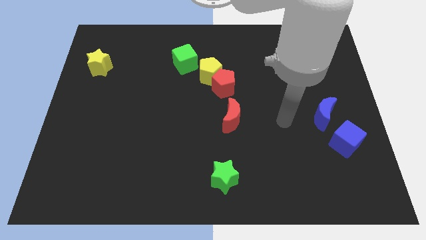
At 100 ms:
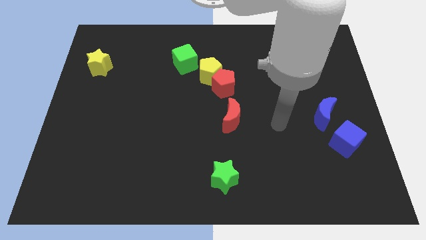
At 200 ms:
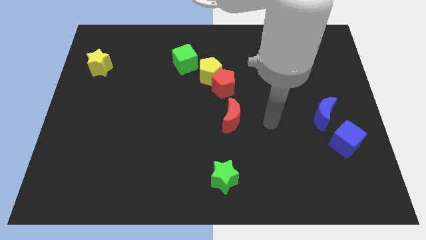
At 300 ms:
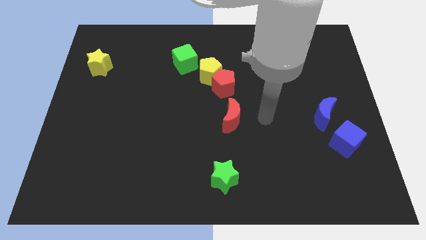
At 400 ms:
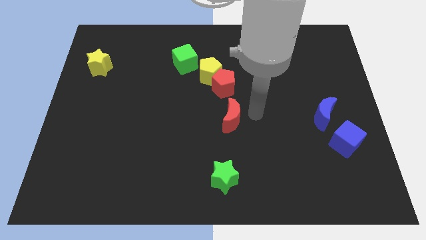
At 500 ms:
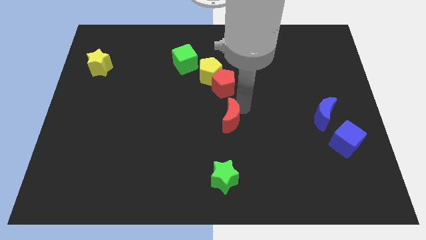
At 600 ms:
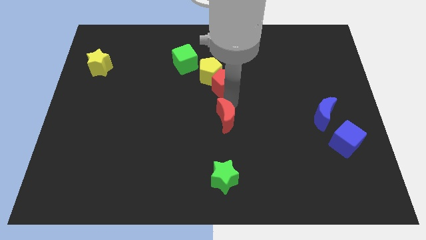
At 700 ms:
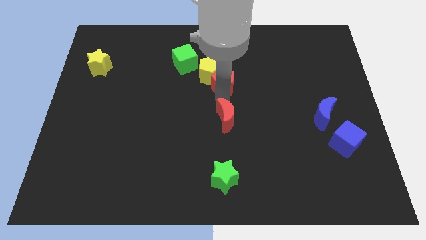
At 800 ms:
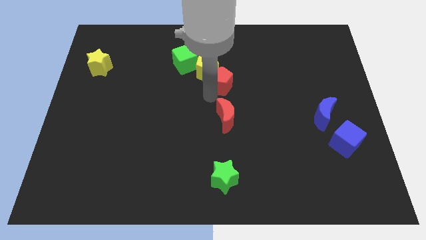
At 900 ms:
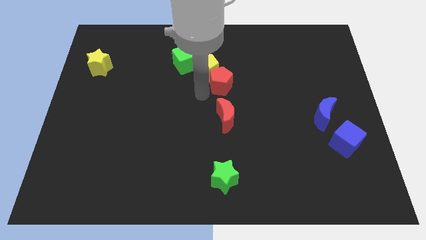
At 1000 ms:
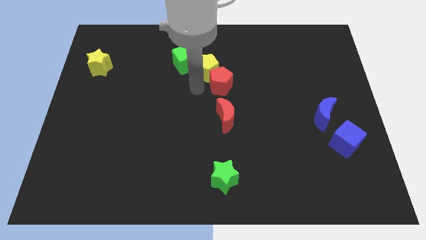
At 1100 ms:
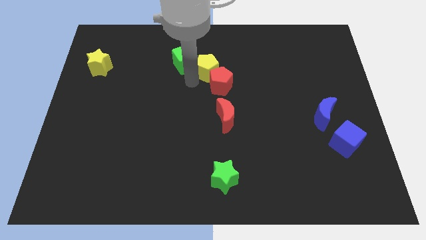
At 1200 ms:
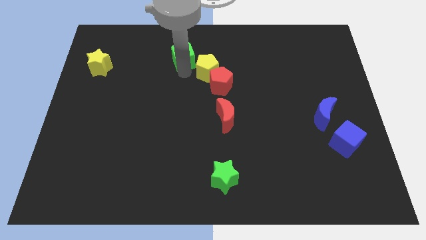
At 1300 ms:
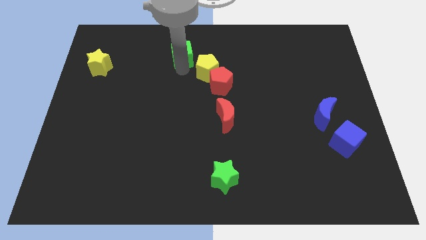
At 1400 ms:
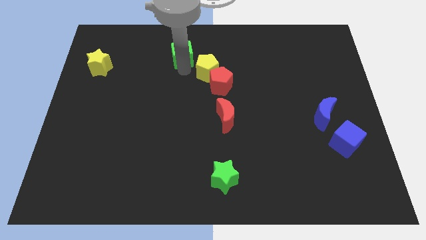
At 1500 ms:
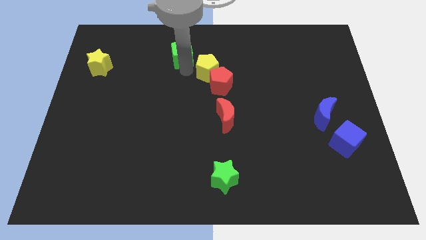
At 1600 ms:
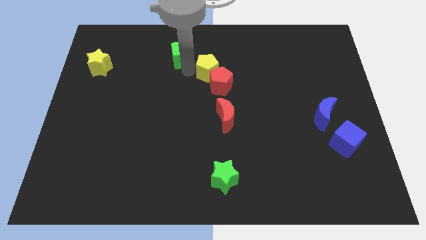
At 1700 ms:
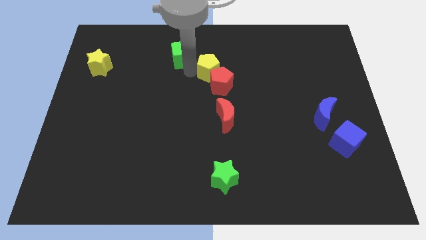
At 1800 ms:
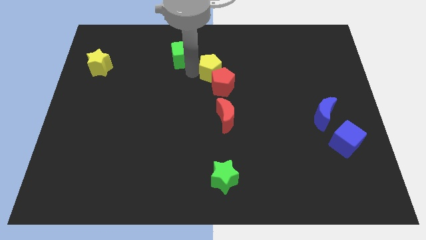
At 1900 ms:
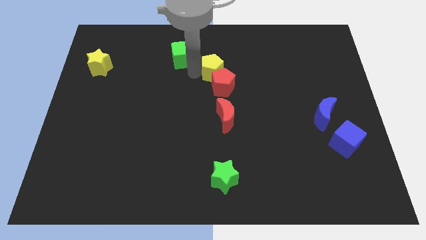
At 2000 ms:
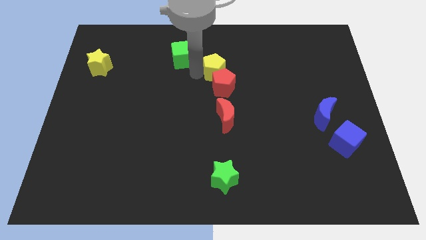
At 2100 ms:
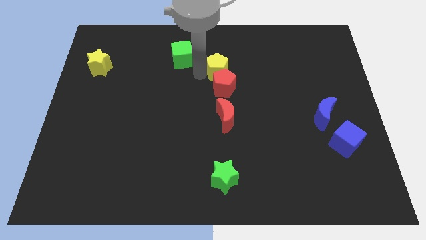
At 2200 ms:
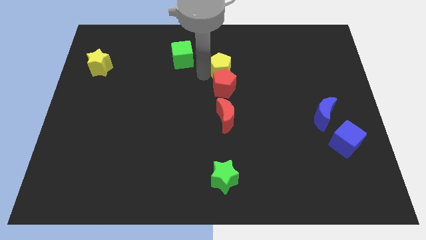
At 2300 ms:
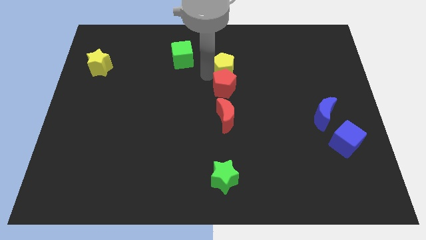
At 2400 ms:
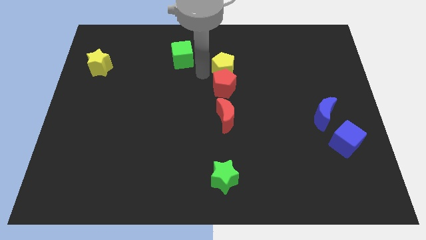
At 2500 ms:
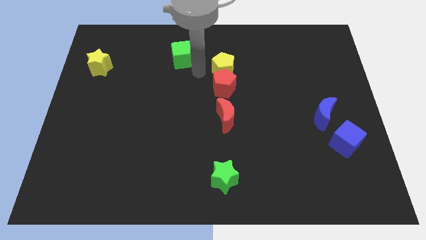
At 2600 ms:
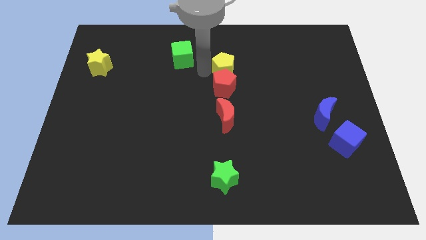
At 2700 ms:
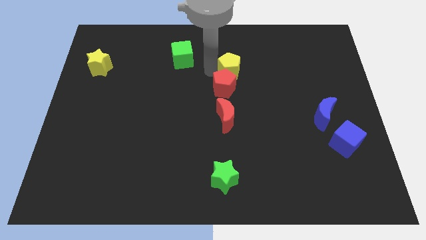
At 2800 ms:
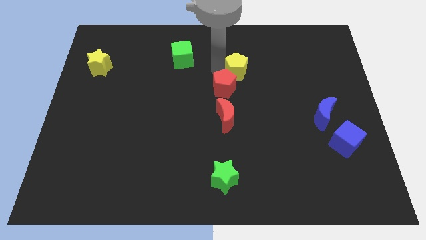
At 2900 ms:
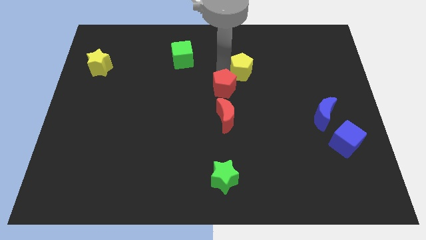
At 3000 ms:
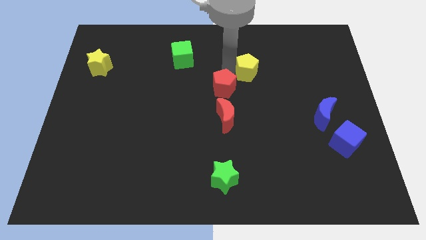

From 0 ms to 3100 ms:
pull the yellow pentagon apart from the red pentagon and green cube

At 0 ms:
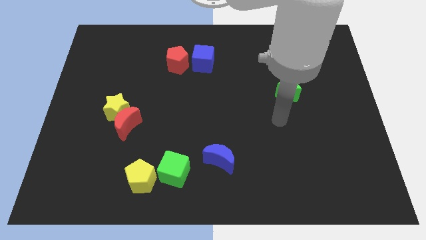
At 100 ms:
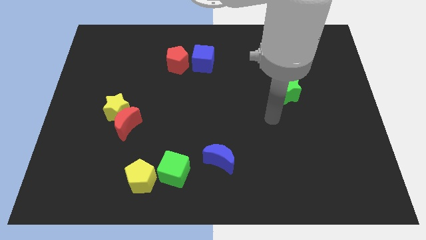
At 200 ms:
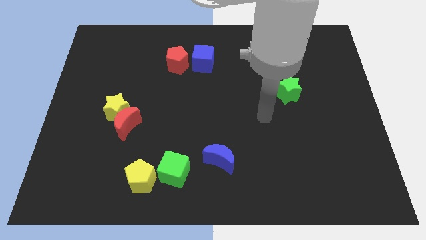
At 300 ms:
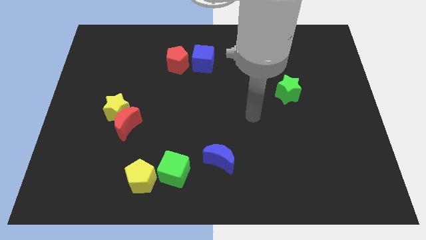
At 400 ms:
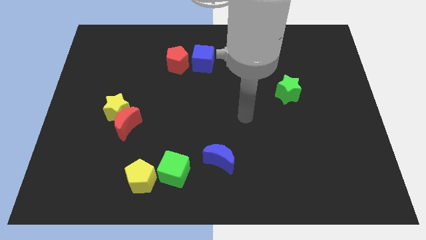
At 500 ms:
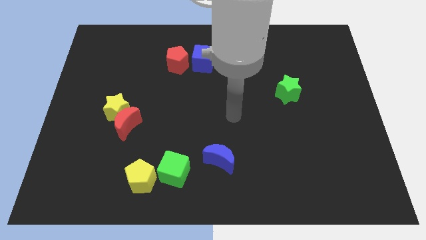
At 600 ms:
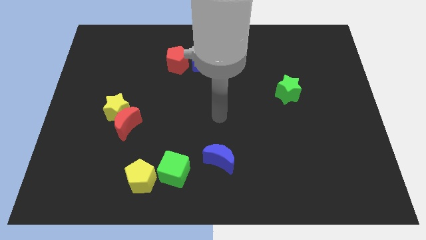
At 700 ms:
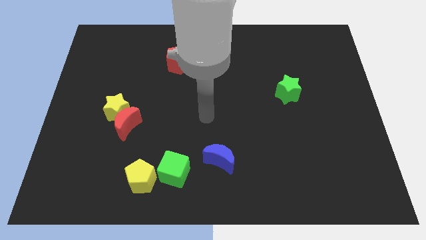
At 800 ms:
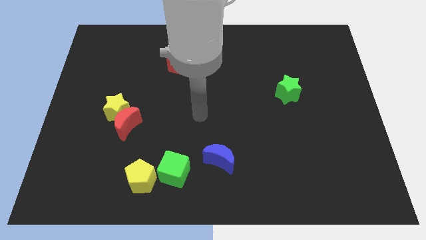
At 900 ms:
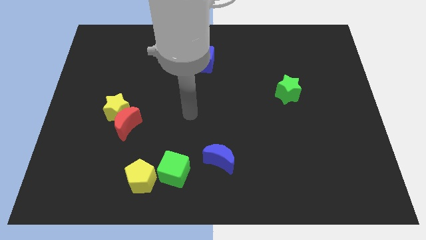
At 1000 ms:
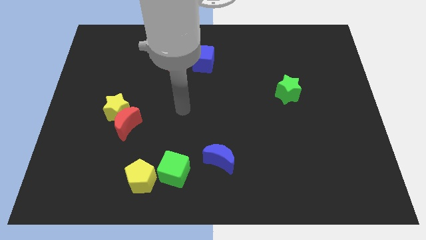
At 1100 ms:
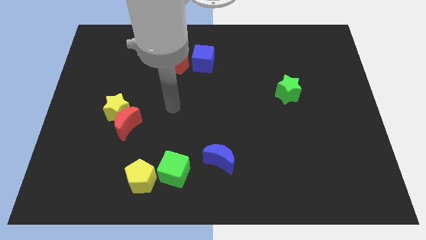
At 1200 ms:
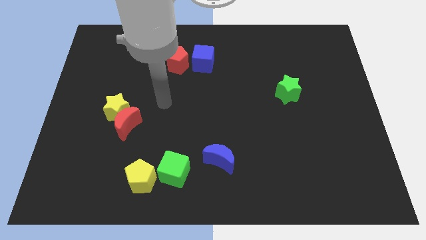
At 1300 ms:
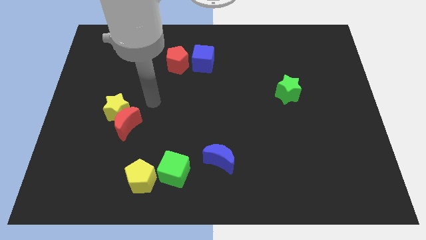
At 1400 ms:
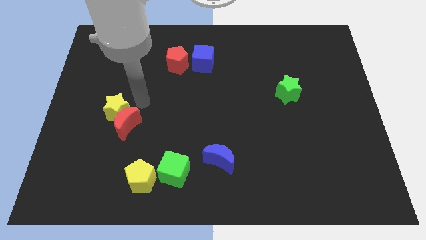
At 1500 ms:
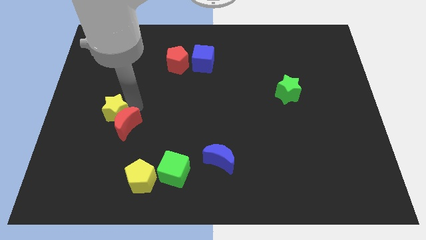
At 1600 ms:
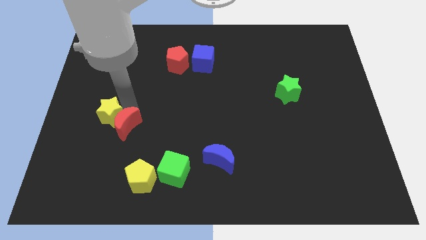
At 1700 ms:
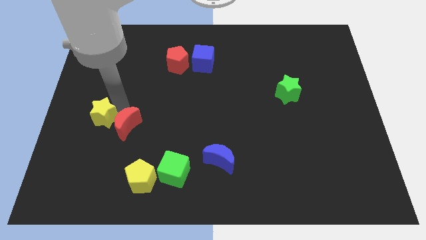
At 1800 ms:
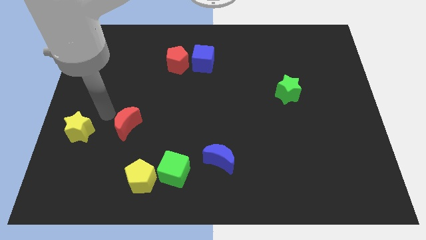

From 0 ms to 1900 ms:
separate the red moon from the yellow star

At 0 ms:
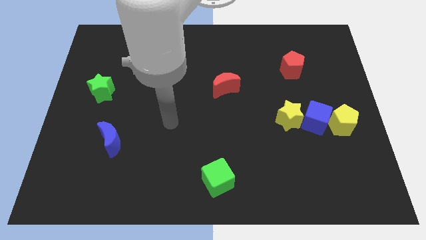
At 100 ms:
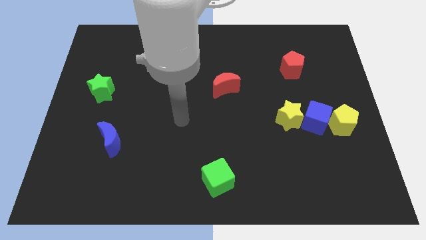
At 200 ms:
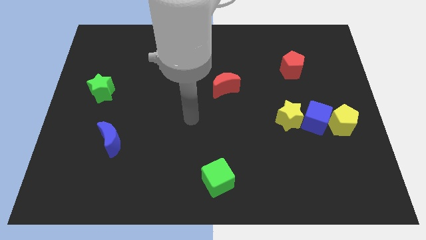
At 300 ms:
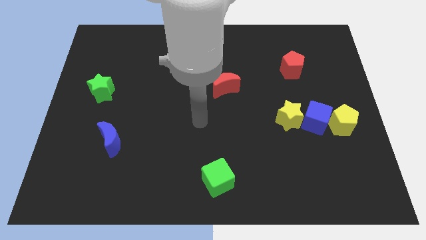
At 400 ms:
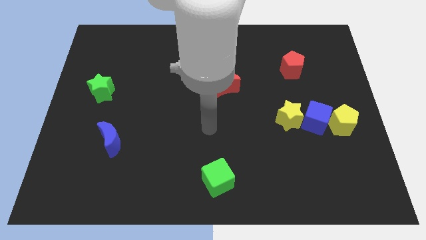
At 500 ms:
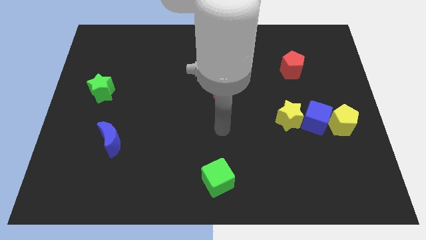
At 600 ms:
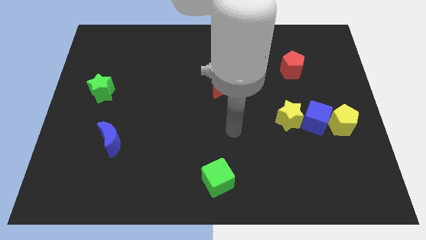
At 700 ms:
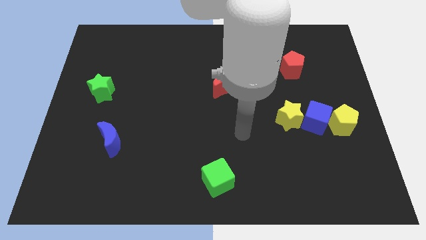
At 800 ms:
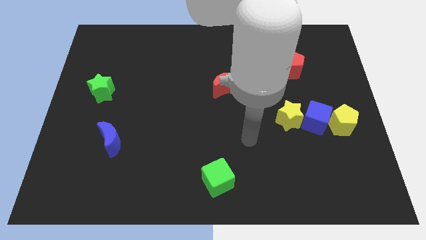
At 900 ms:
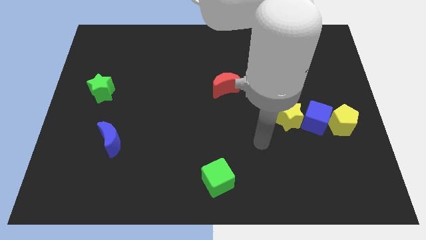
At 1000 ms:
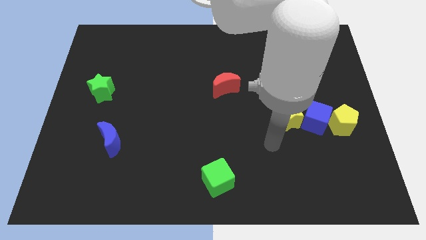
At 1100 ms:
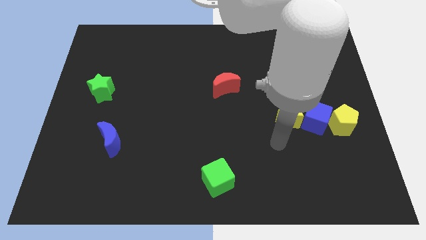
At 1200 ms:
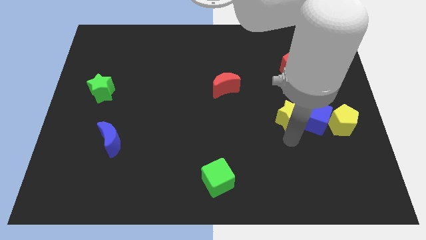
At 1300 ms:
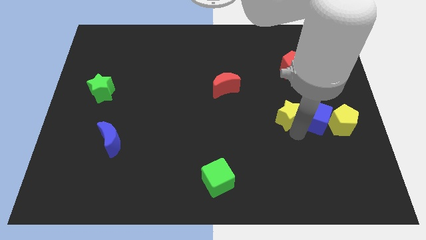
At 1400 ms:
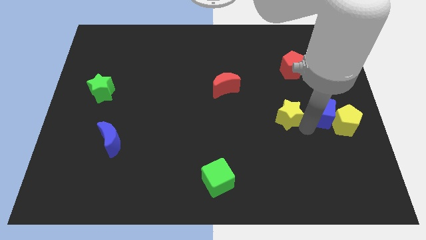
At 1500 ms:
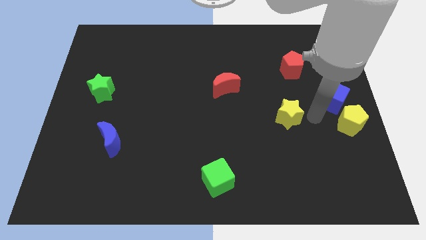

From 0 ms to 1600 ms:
move the yellow star away from the blue cube

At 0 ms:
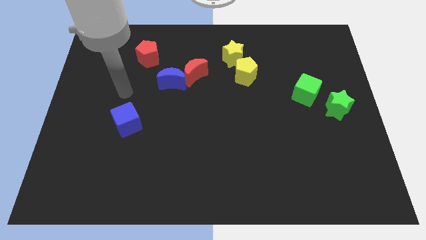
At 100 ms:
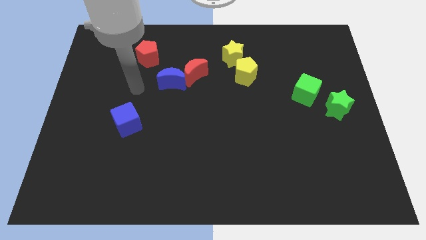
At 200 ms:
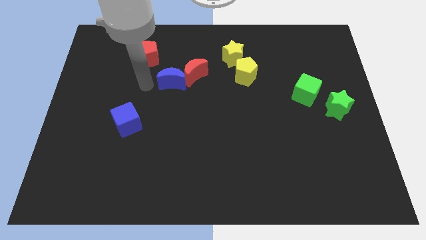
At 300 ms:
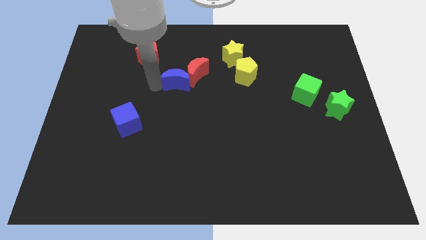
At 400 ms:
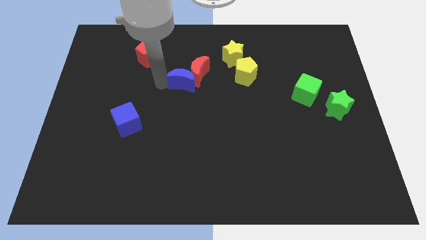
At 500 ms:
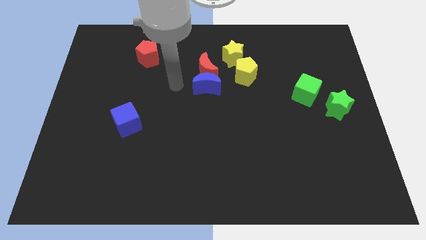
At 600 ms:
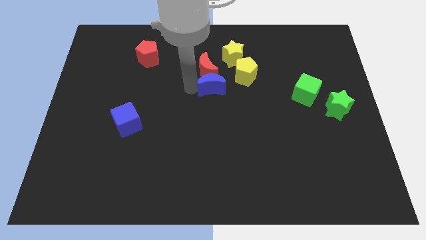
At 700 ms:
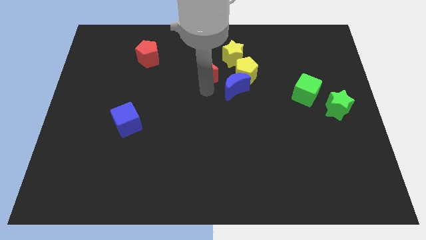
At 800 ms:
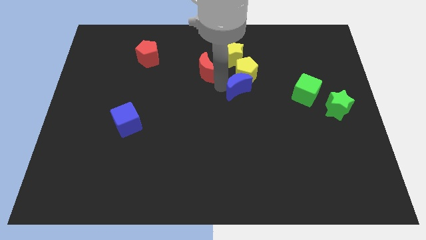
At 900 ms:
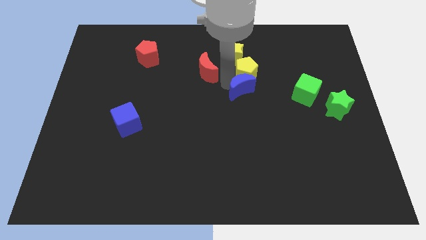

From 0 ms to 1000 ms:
pull the red moon apart from the blue moon

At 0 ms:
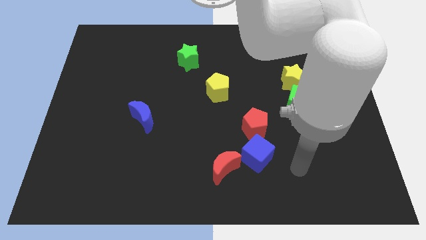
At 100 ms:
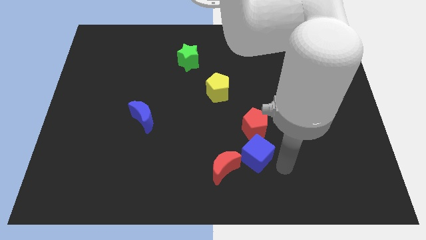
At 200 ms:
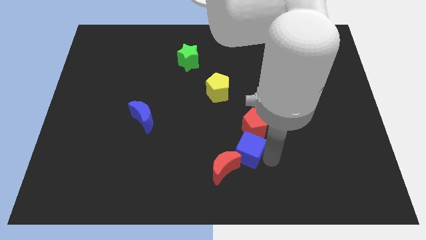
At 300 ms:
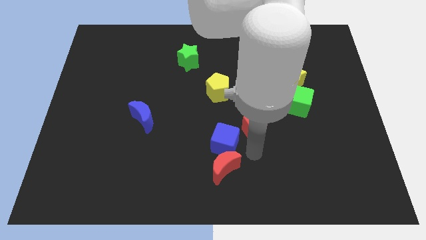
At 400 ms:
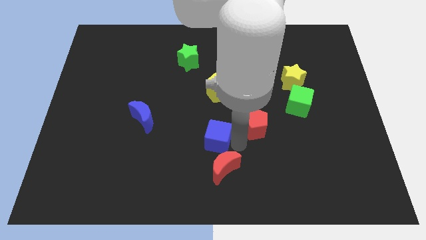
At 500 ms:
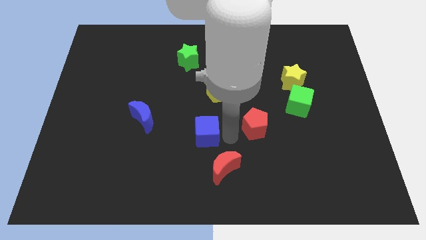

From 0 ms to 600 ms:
move the red pentagon away from the blue cube

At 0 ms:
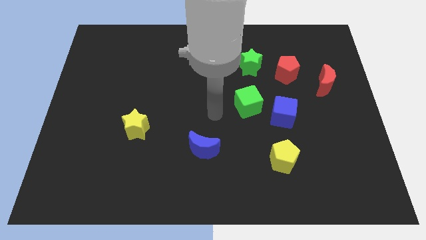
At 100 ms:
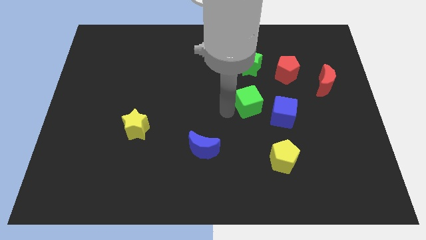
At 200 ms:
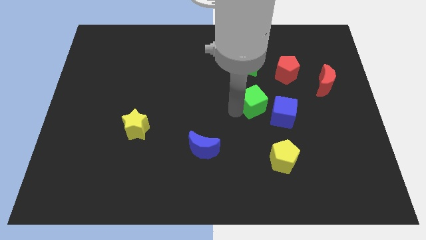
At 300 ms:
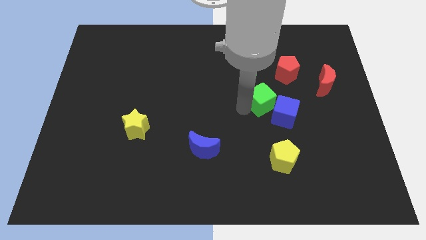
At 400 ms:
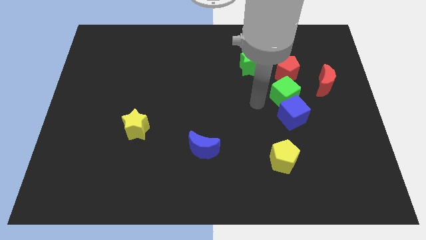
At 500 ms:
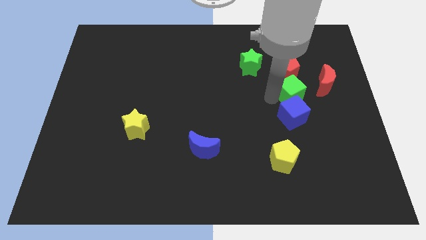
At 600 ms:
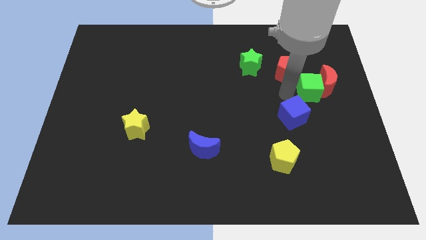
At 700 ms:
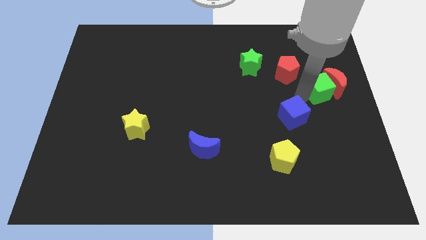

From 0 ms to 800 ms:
move the blue cube away from the green cube

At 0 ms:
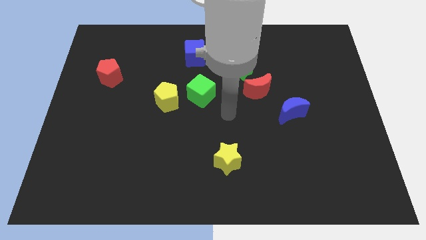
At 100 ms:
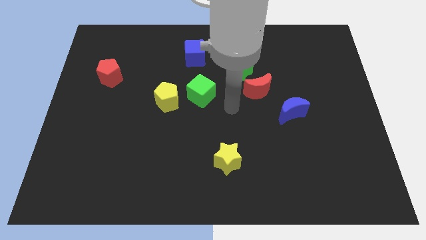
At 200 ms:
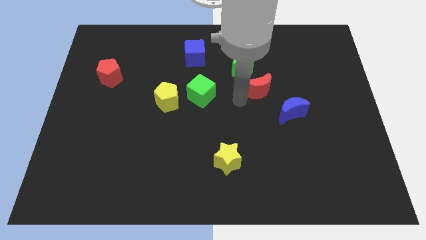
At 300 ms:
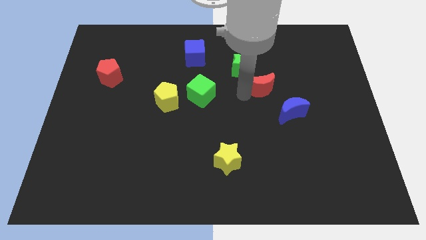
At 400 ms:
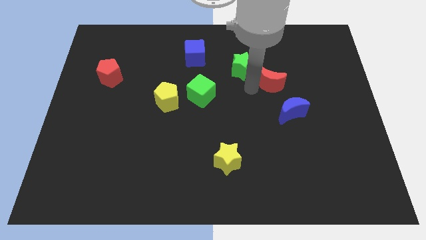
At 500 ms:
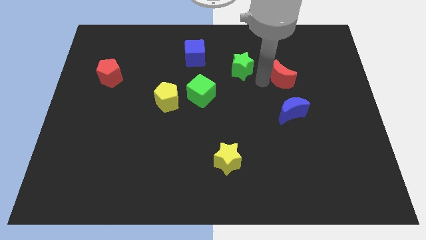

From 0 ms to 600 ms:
separate the green star from the red moon
